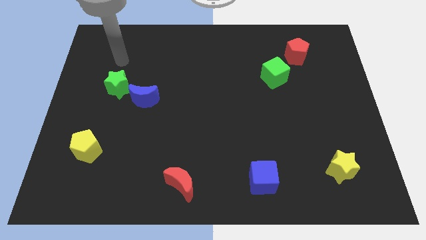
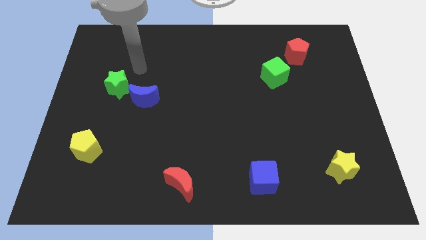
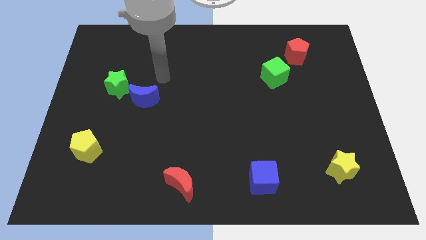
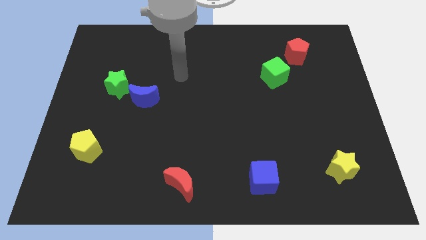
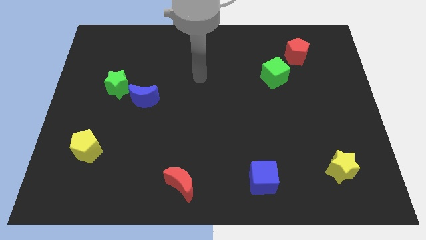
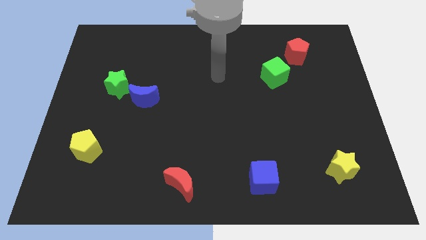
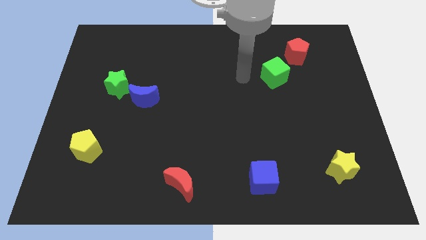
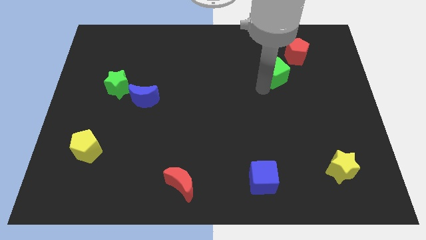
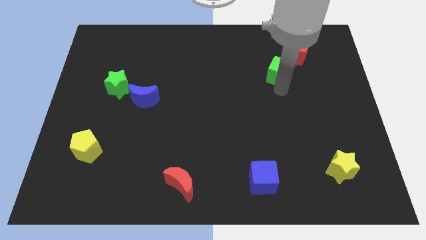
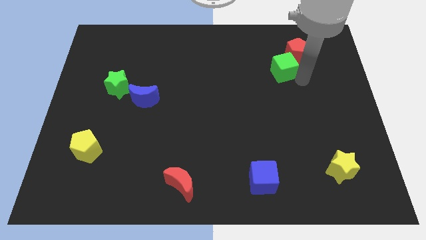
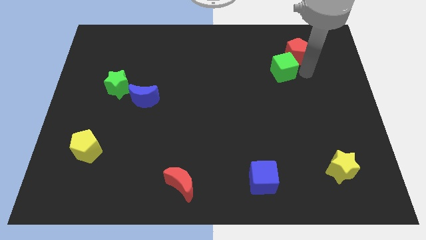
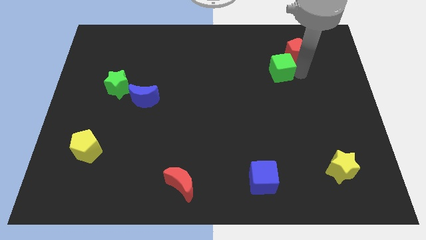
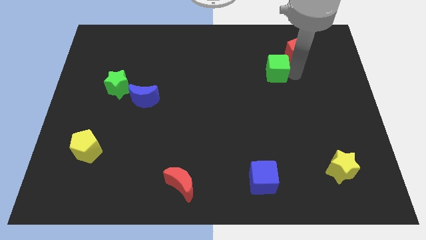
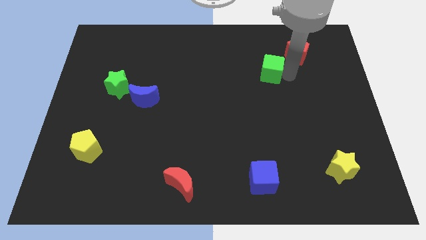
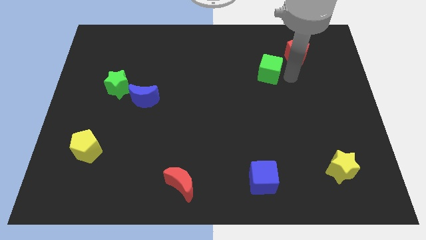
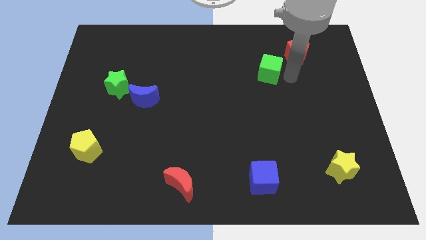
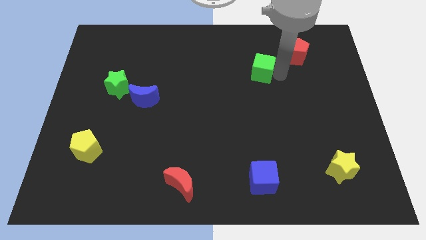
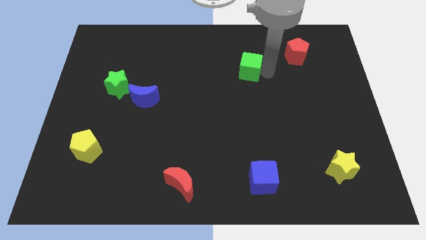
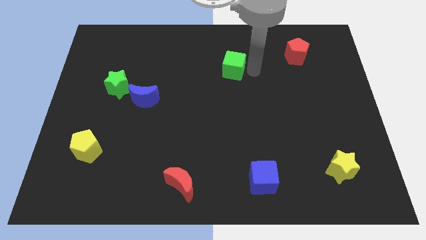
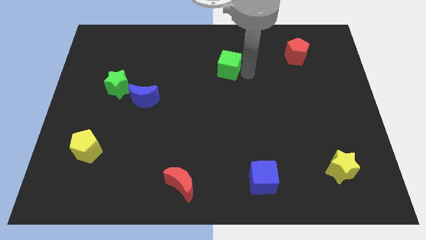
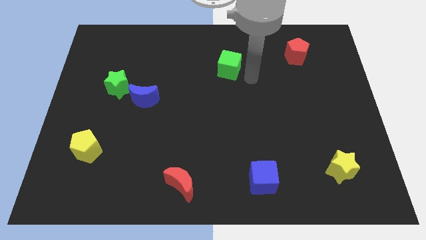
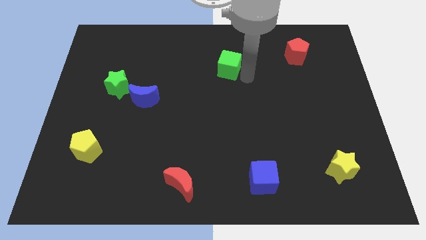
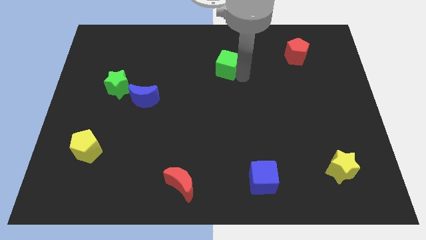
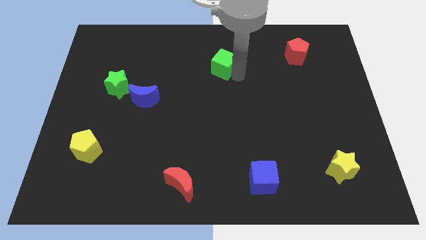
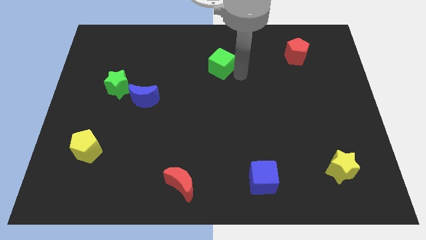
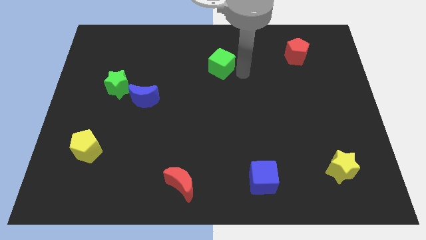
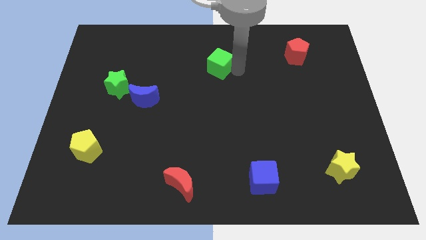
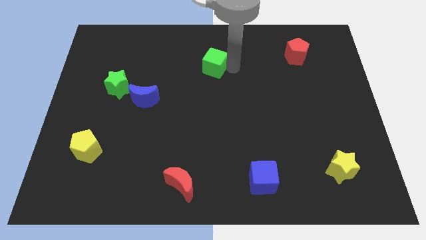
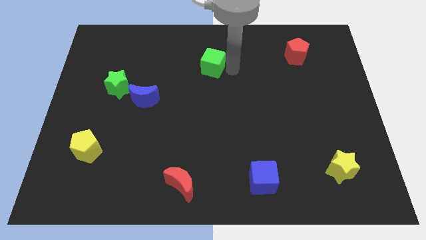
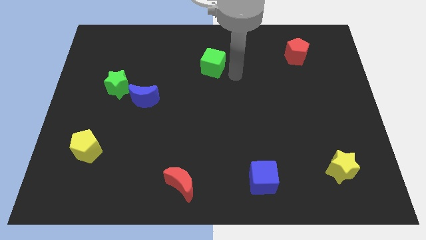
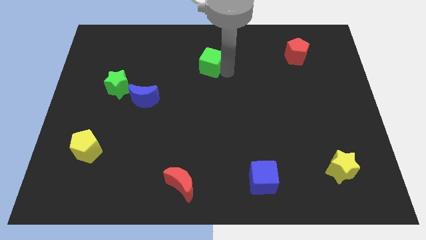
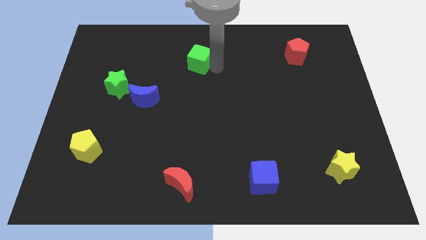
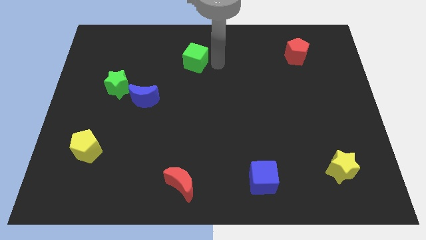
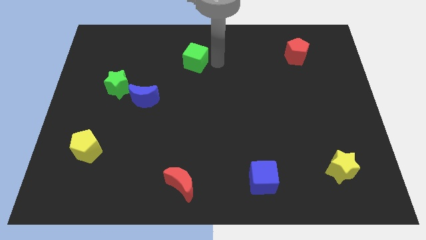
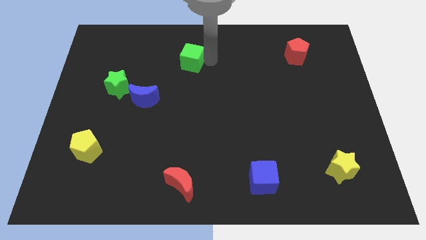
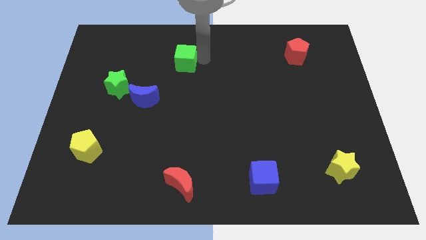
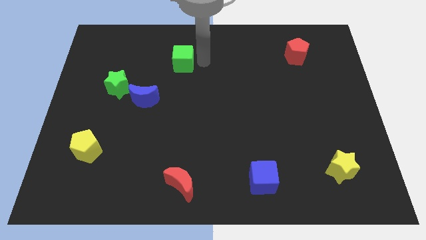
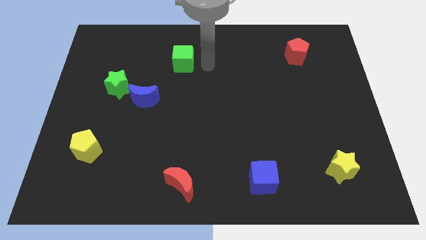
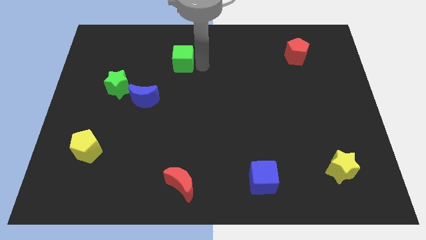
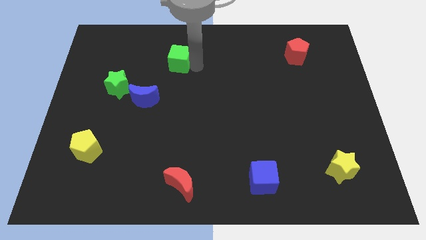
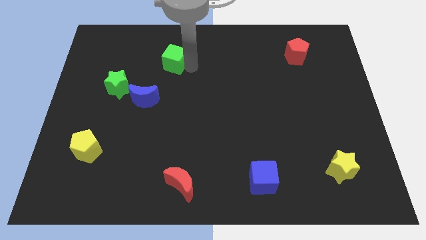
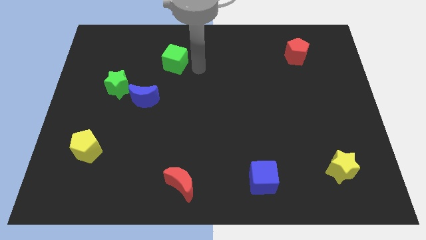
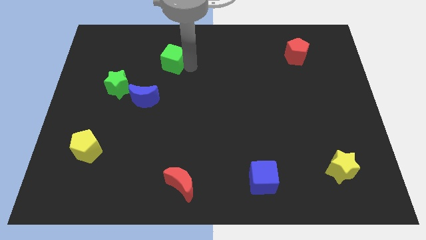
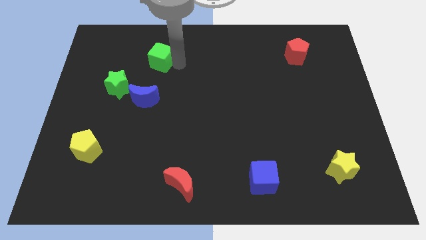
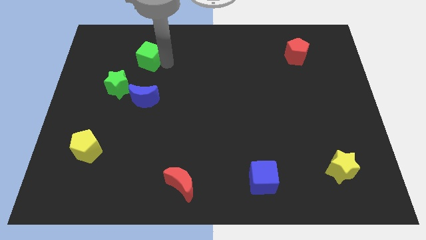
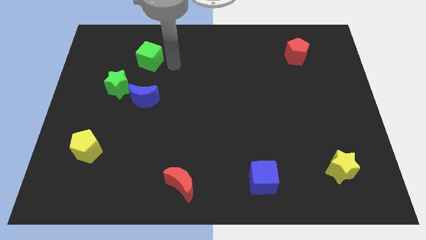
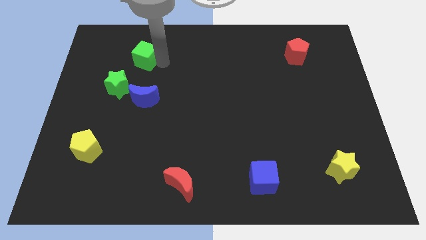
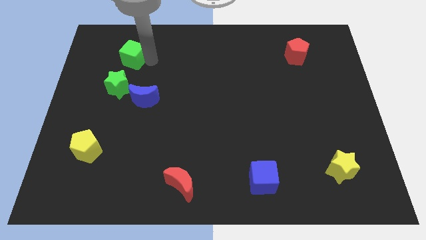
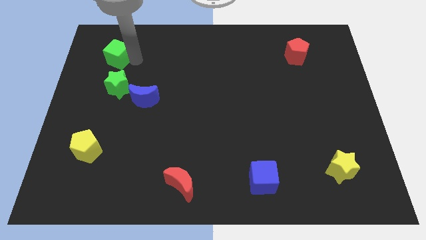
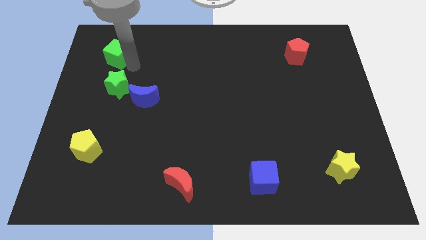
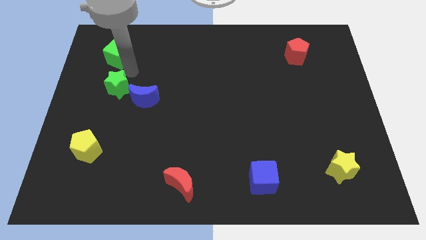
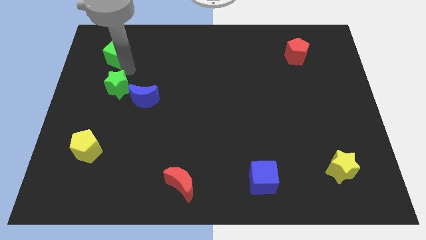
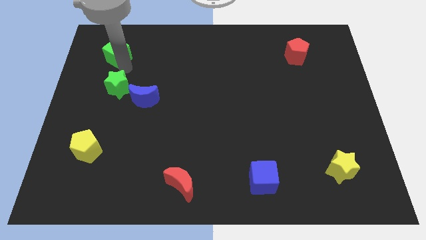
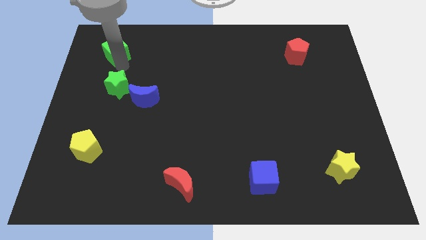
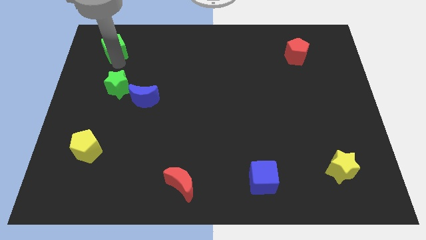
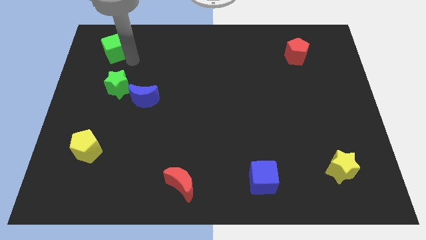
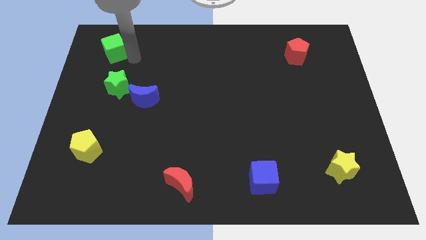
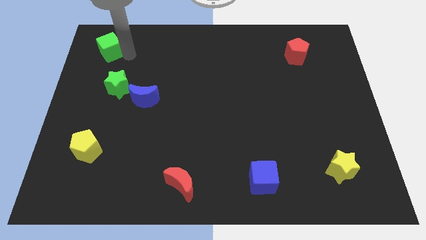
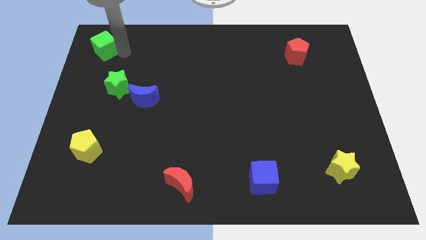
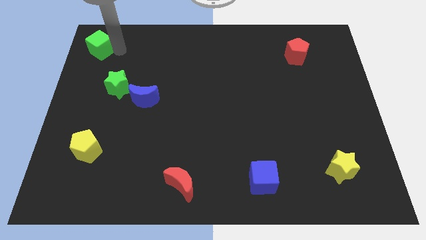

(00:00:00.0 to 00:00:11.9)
push the green cube to the top left corner

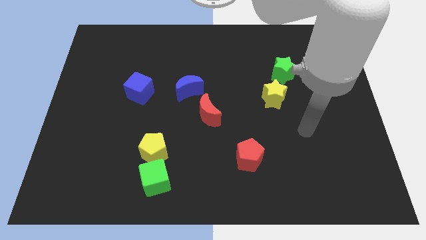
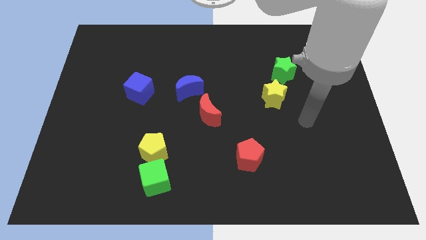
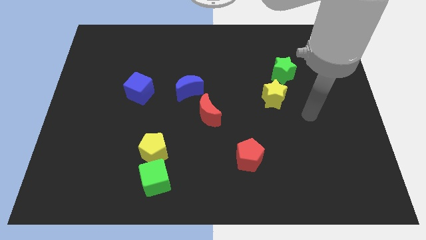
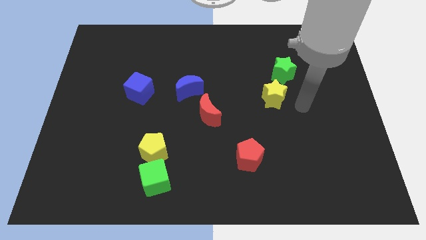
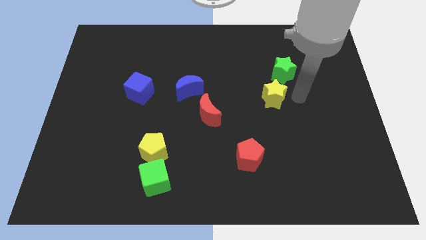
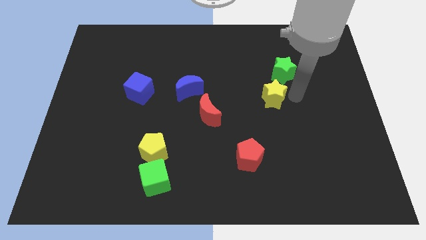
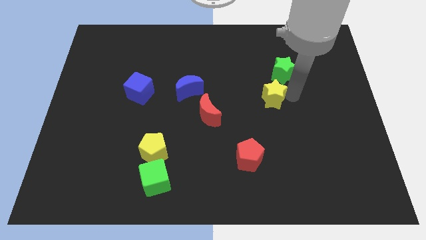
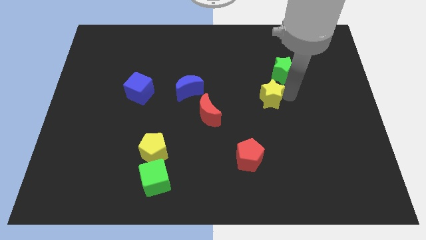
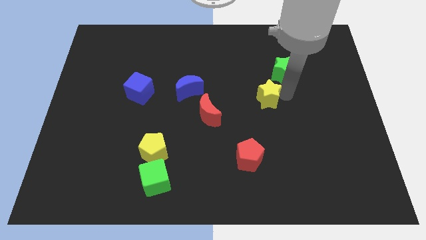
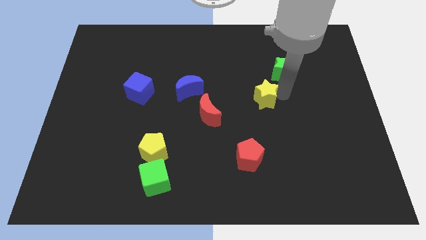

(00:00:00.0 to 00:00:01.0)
push the yellow star to the center of the board
